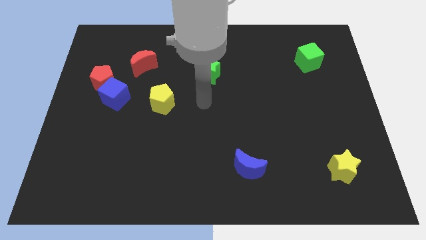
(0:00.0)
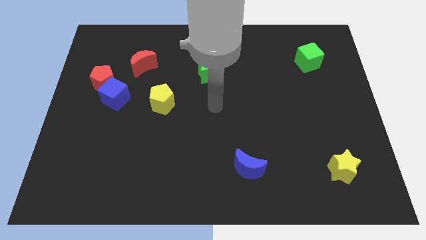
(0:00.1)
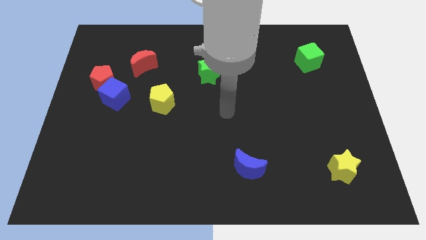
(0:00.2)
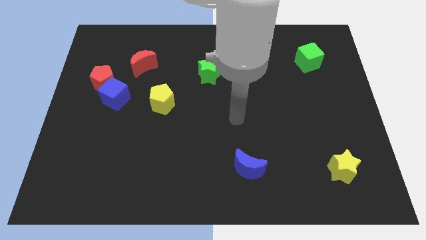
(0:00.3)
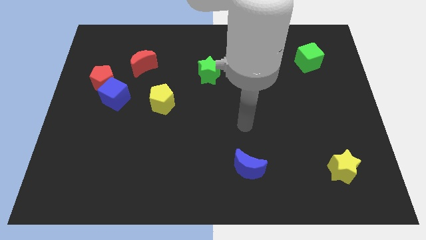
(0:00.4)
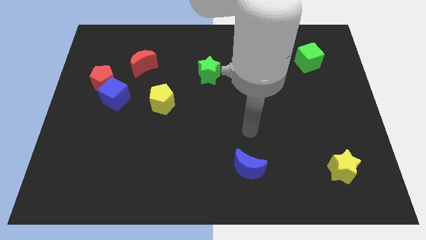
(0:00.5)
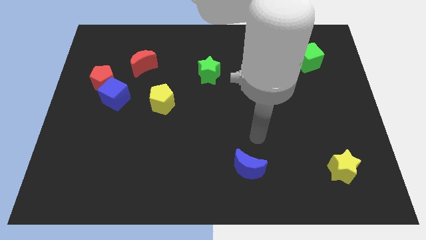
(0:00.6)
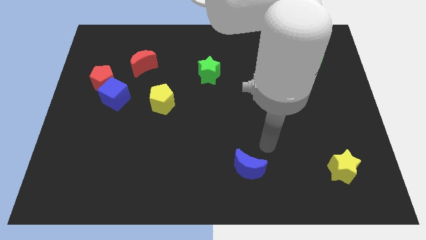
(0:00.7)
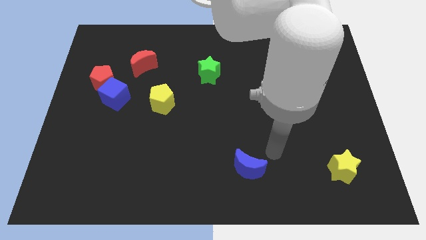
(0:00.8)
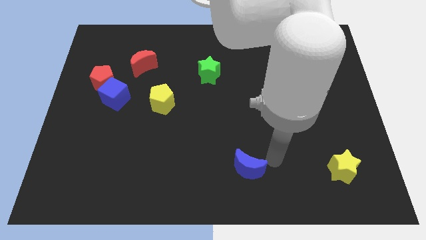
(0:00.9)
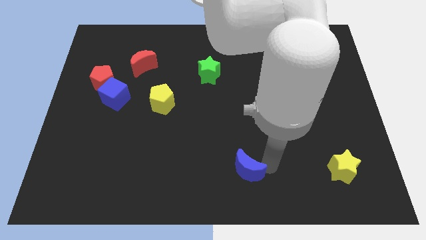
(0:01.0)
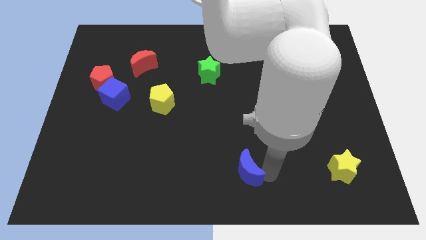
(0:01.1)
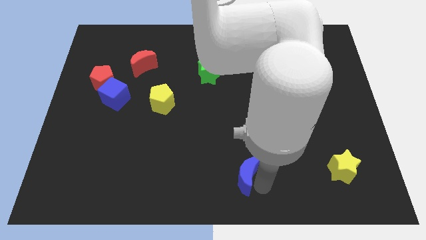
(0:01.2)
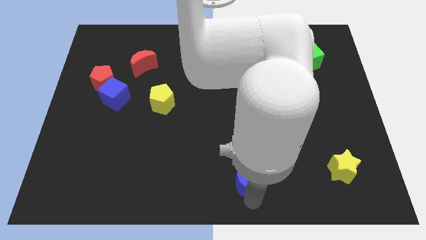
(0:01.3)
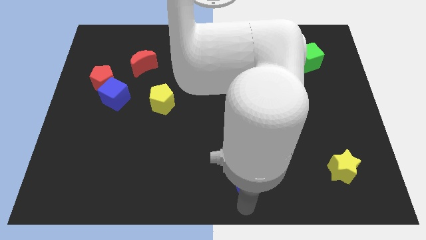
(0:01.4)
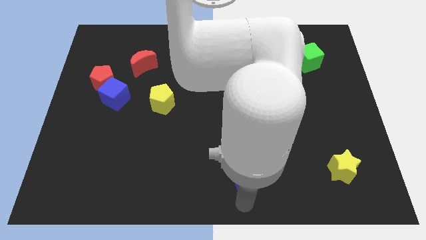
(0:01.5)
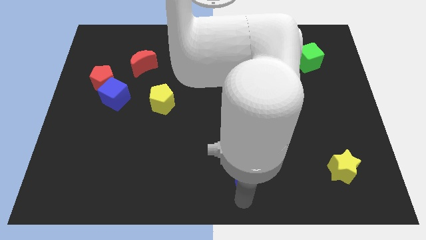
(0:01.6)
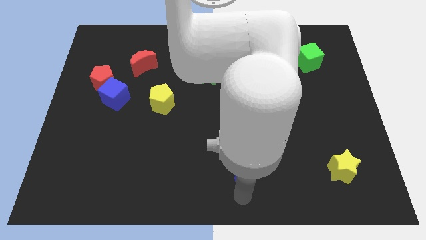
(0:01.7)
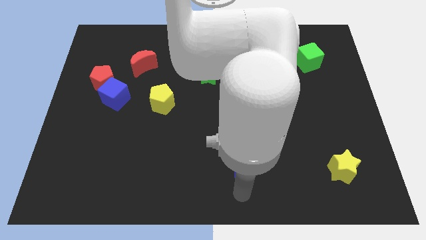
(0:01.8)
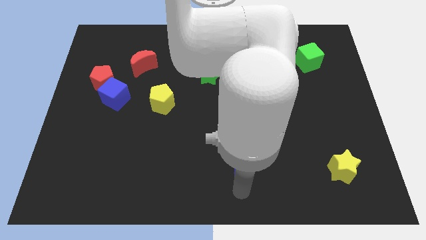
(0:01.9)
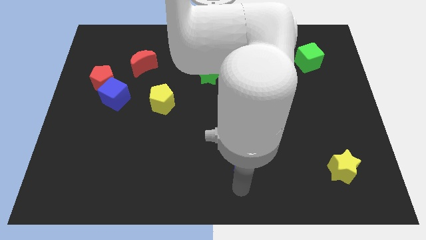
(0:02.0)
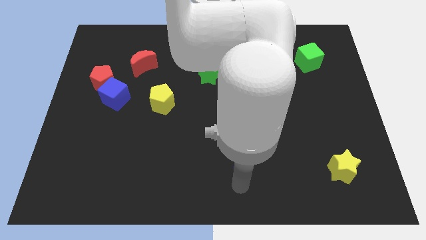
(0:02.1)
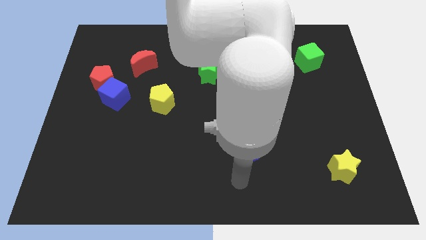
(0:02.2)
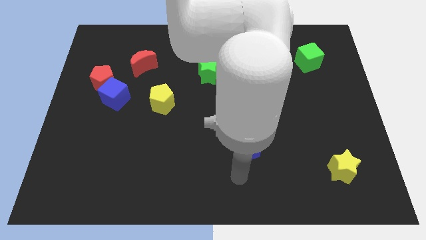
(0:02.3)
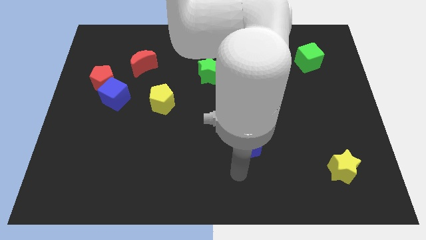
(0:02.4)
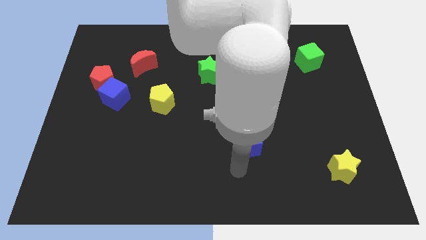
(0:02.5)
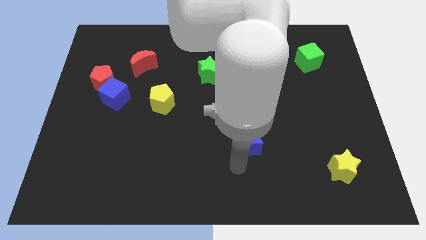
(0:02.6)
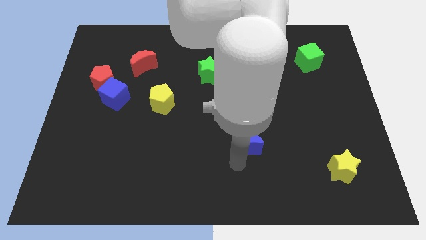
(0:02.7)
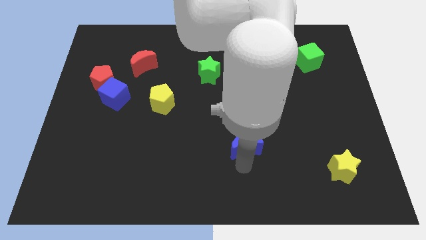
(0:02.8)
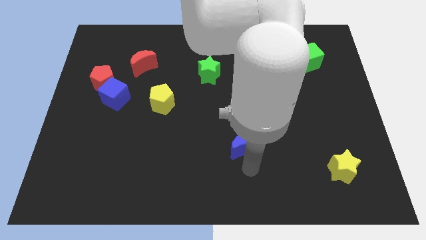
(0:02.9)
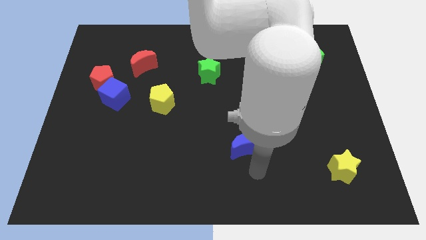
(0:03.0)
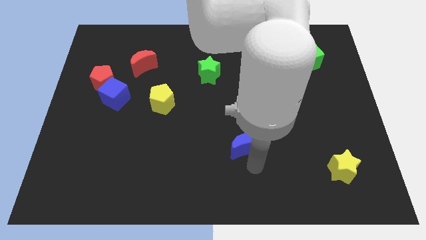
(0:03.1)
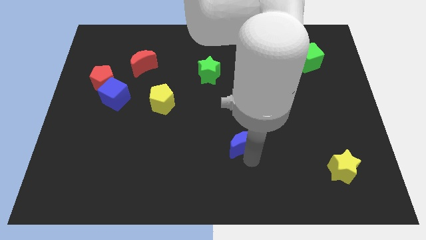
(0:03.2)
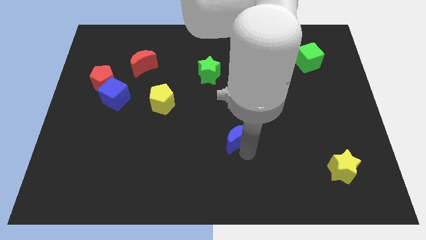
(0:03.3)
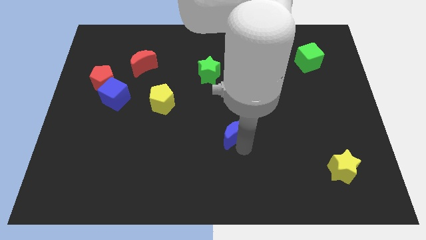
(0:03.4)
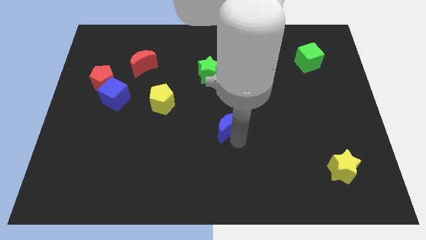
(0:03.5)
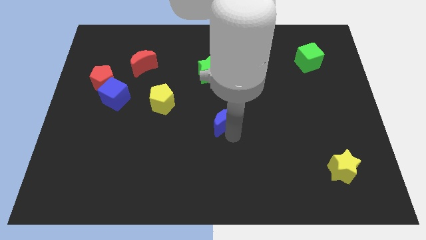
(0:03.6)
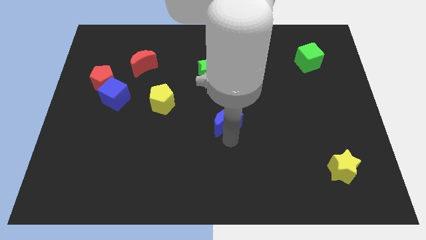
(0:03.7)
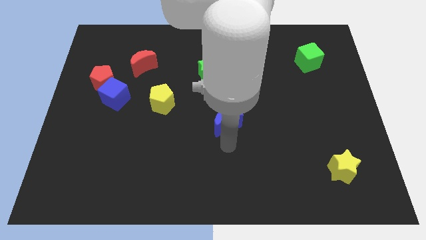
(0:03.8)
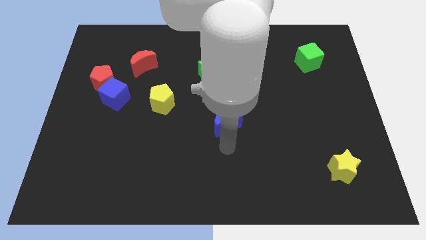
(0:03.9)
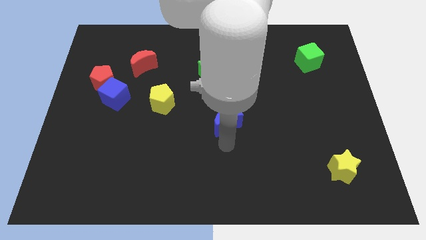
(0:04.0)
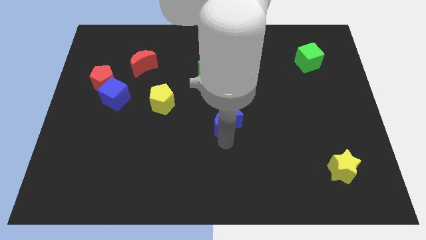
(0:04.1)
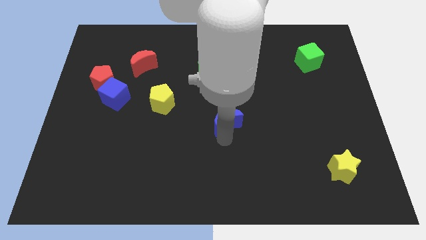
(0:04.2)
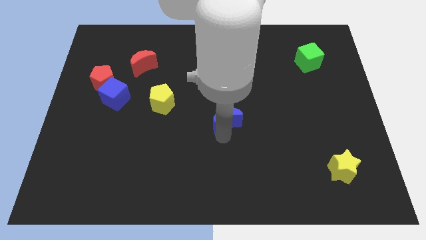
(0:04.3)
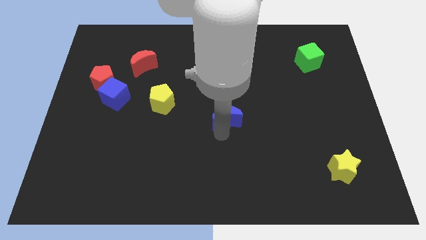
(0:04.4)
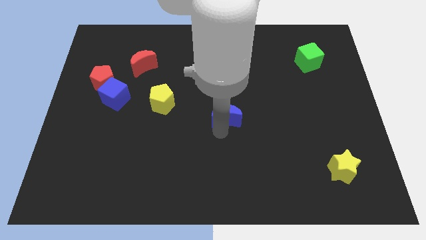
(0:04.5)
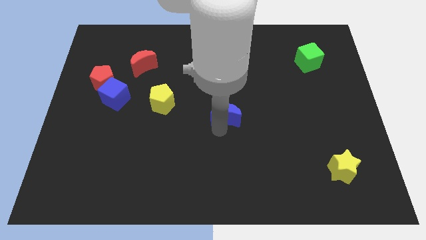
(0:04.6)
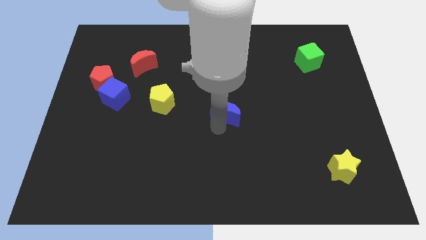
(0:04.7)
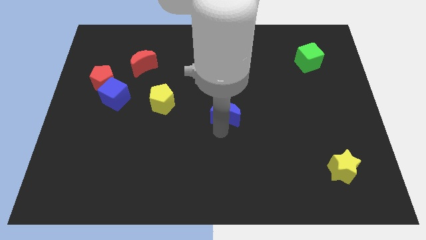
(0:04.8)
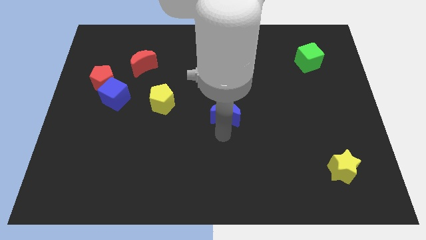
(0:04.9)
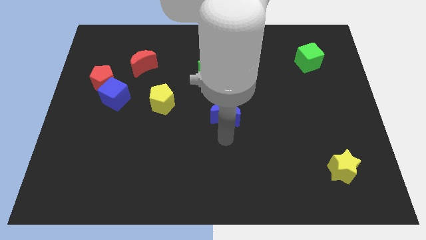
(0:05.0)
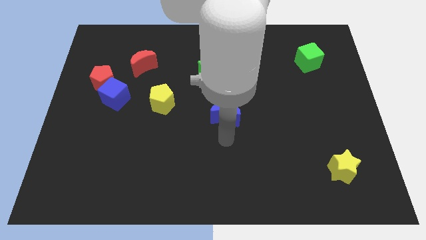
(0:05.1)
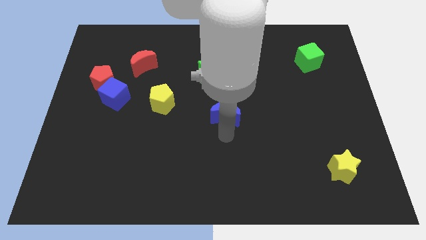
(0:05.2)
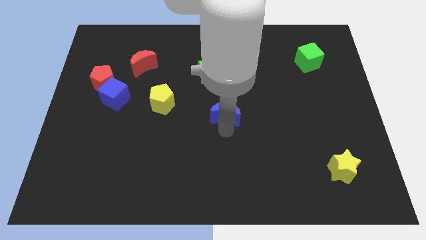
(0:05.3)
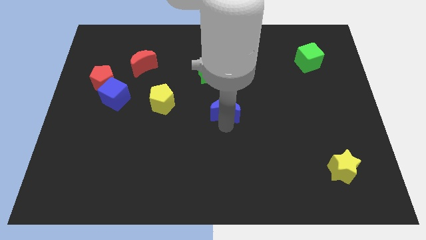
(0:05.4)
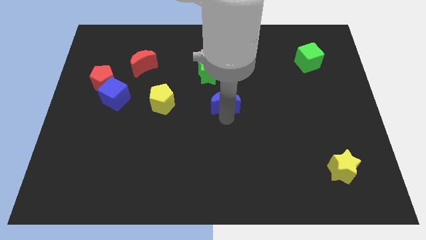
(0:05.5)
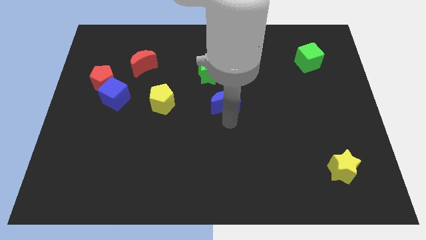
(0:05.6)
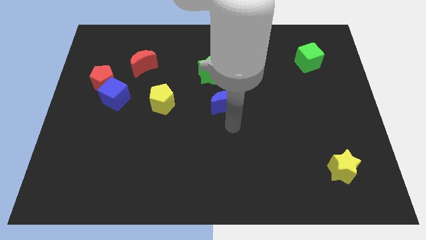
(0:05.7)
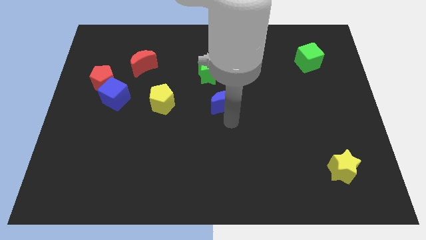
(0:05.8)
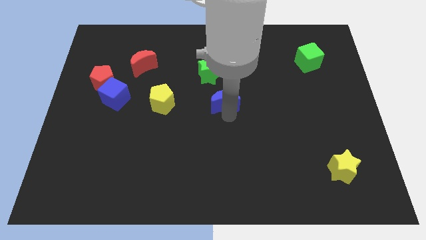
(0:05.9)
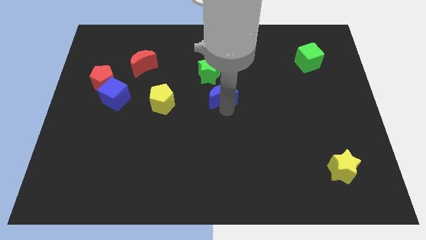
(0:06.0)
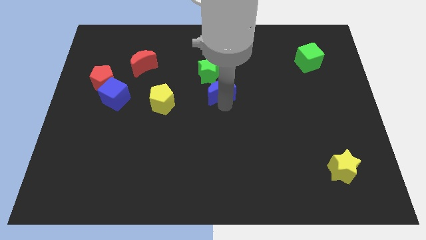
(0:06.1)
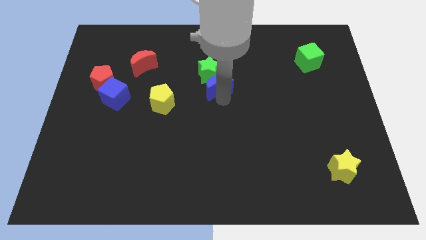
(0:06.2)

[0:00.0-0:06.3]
slide the blue moon close to the green star

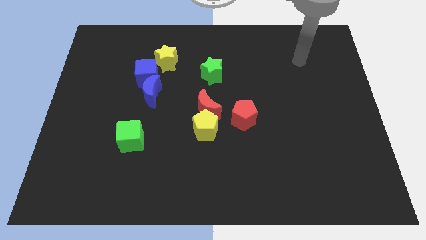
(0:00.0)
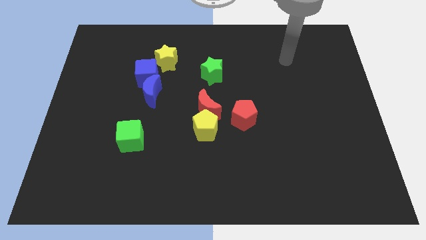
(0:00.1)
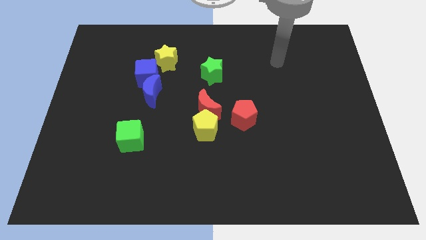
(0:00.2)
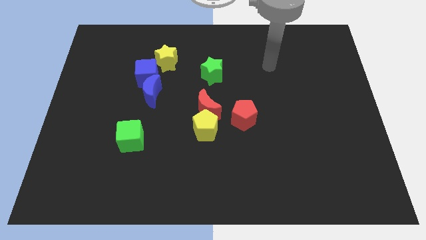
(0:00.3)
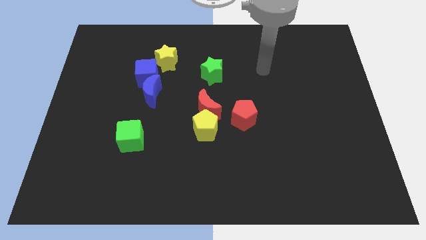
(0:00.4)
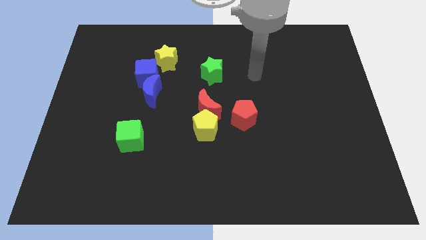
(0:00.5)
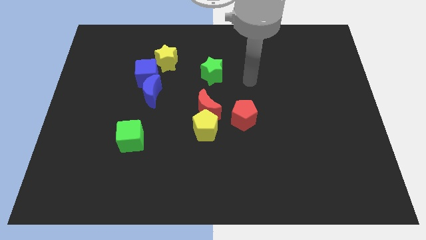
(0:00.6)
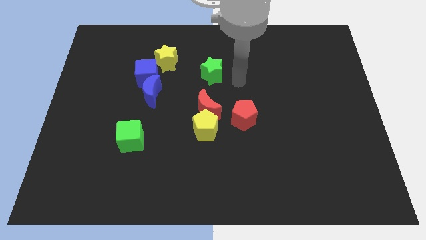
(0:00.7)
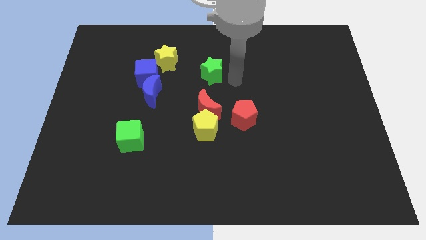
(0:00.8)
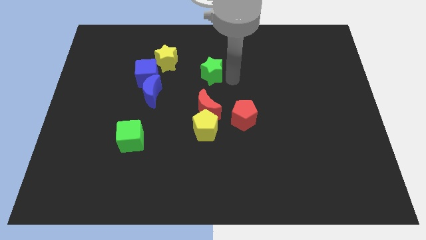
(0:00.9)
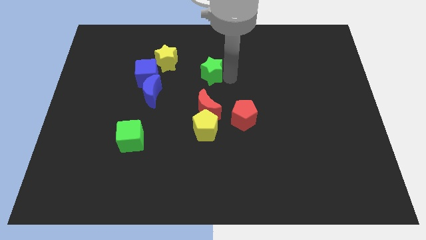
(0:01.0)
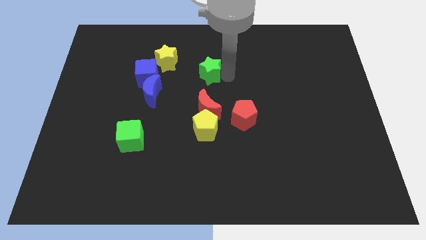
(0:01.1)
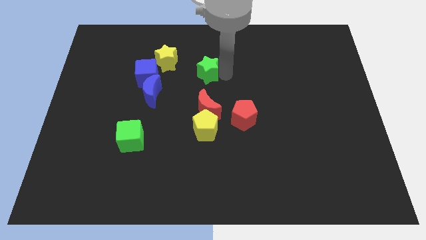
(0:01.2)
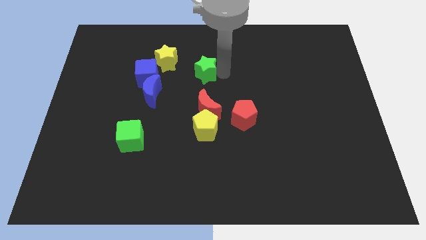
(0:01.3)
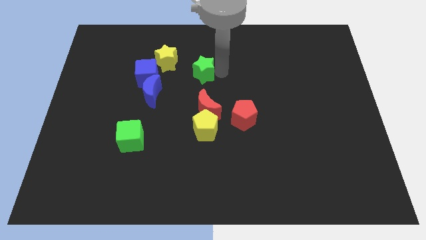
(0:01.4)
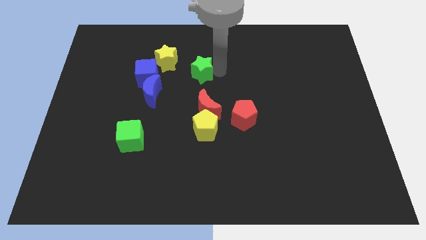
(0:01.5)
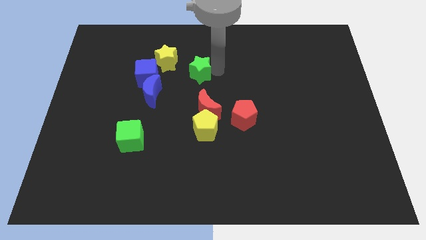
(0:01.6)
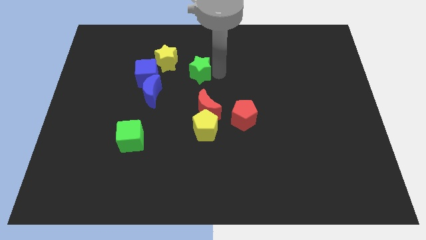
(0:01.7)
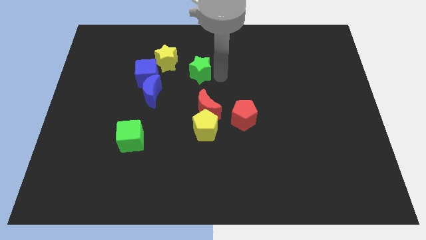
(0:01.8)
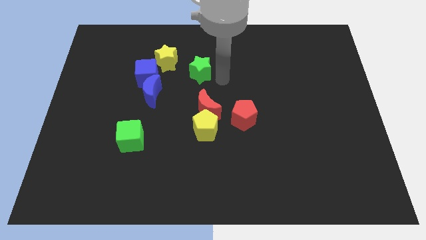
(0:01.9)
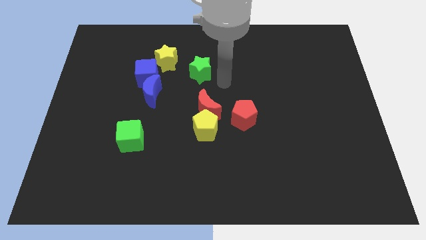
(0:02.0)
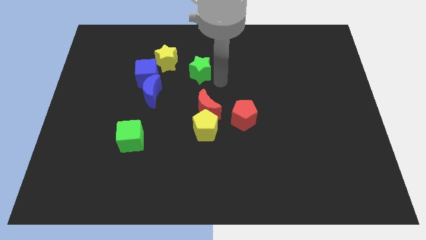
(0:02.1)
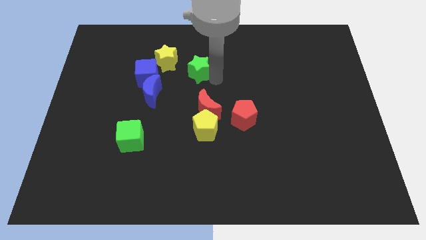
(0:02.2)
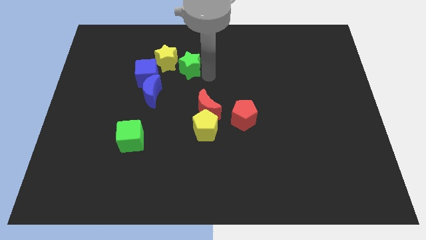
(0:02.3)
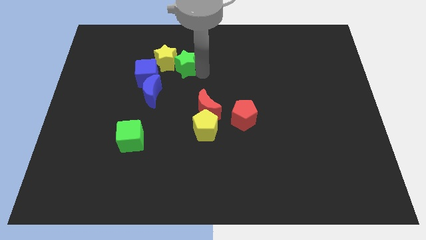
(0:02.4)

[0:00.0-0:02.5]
put the green star towards the yellow star
